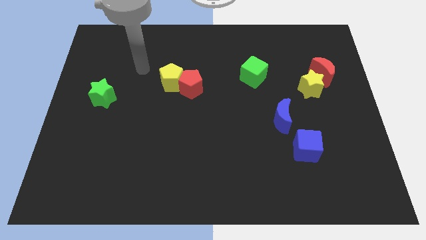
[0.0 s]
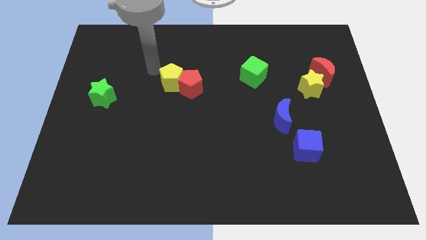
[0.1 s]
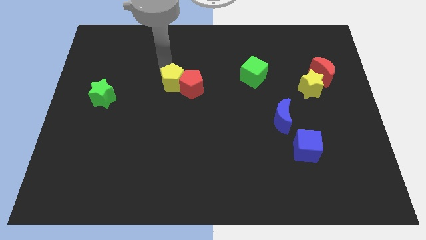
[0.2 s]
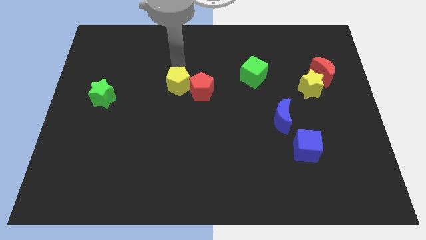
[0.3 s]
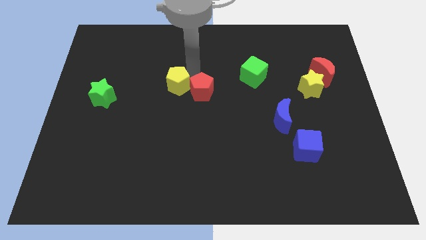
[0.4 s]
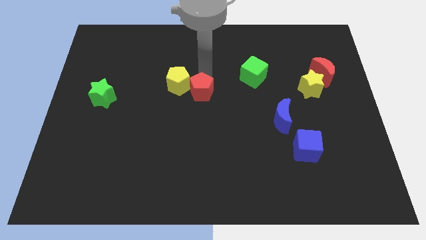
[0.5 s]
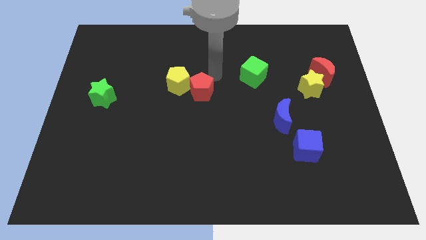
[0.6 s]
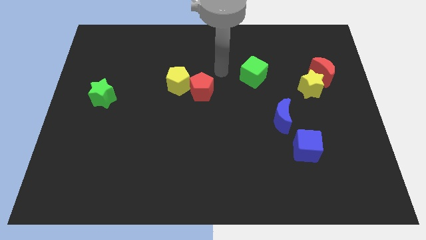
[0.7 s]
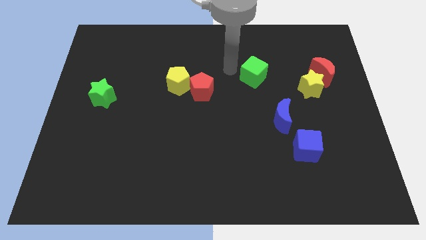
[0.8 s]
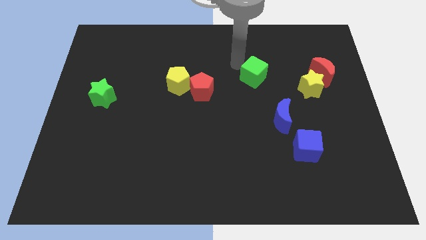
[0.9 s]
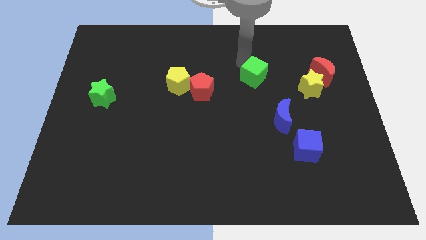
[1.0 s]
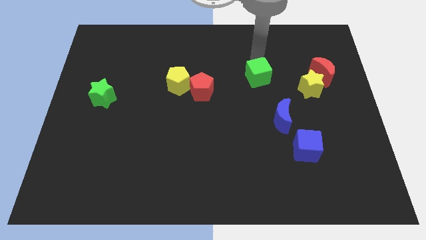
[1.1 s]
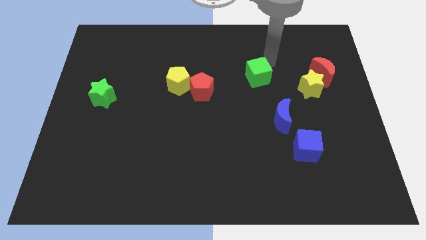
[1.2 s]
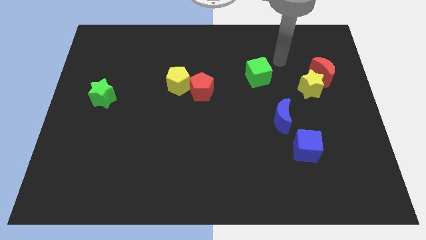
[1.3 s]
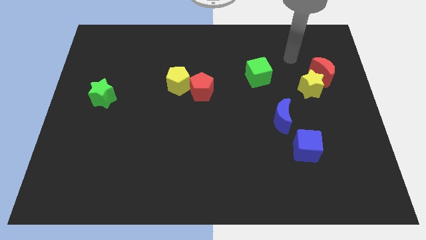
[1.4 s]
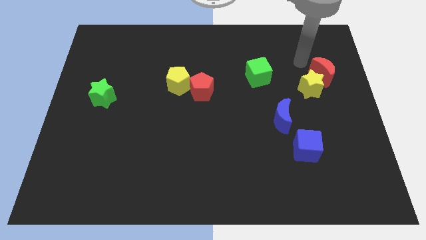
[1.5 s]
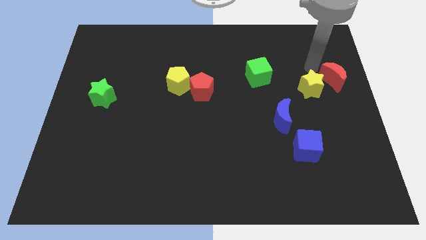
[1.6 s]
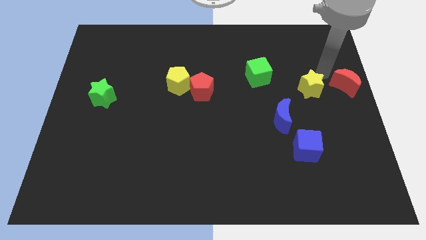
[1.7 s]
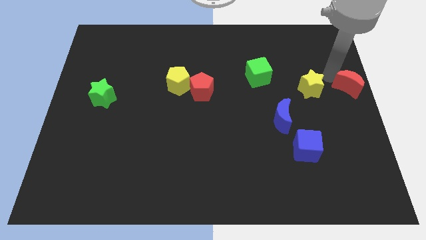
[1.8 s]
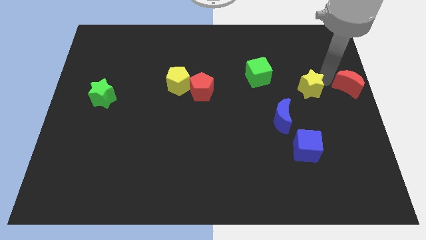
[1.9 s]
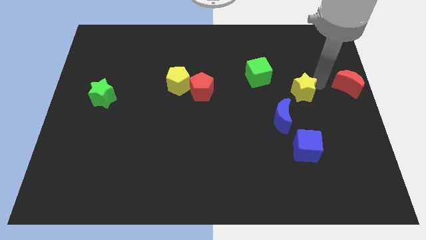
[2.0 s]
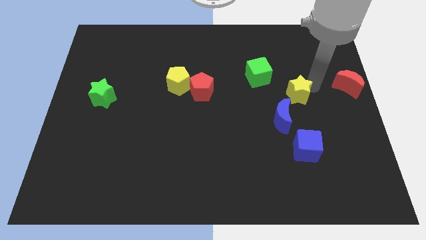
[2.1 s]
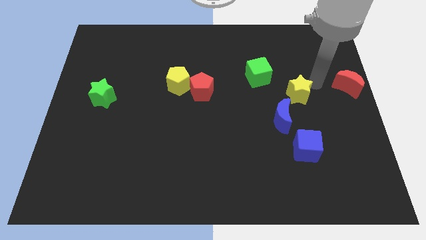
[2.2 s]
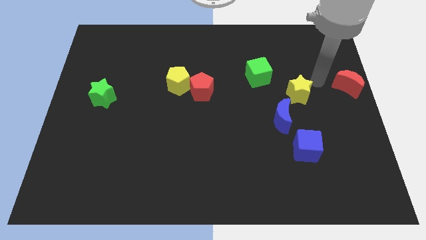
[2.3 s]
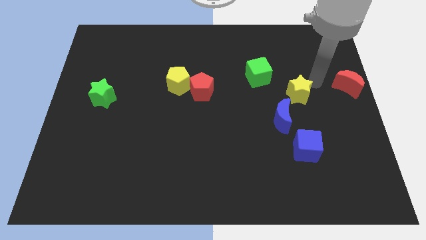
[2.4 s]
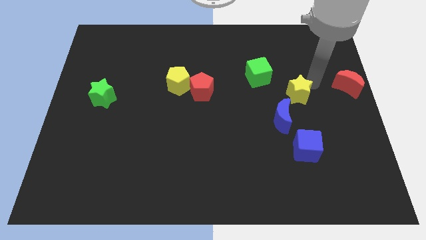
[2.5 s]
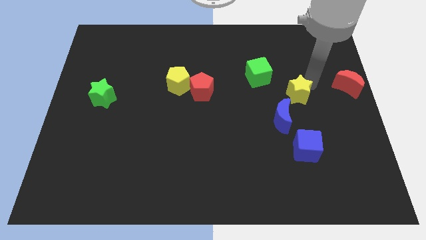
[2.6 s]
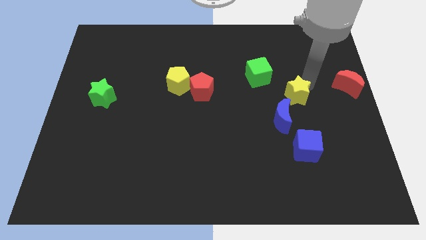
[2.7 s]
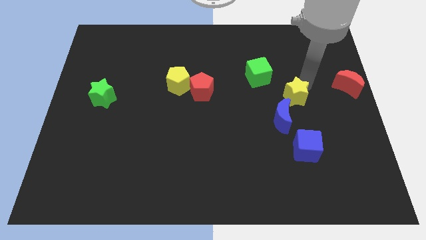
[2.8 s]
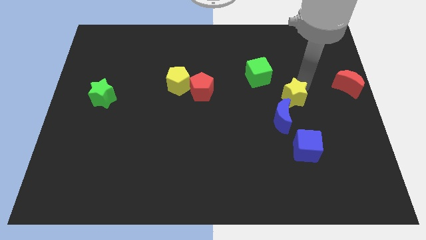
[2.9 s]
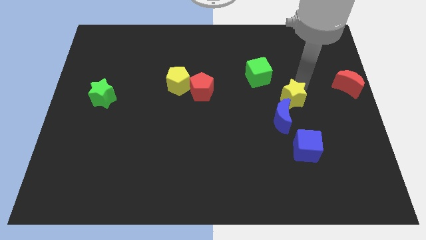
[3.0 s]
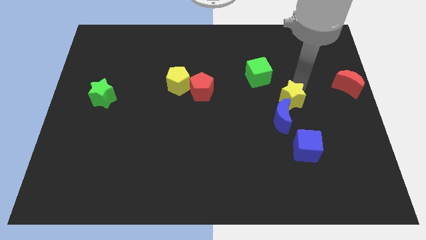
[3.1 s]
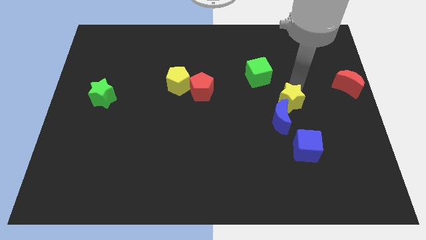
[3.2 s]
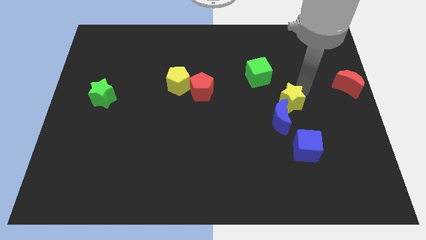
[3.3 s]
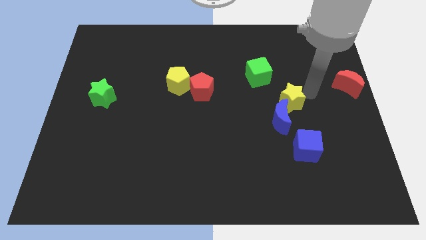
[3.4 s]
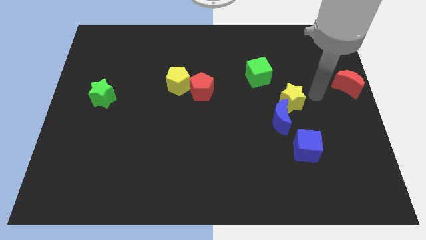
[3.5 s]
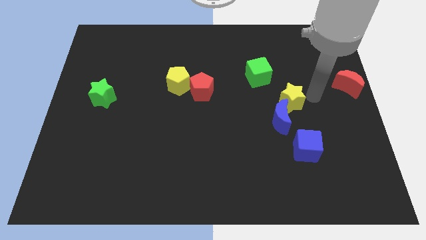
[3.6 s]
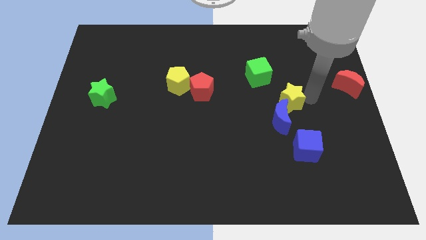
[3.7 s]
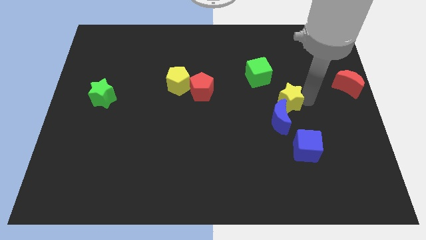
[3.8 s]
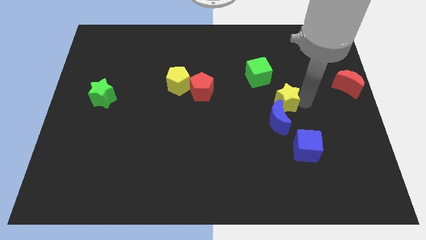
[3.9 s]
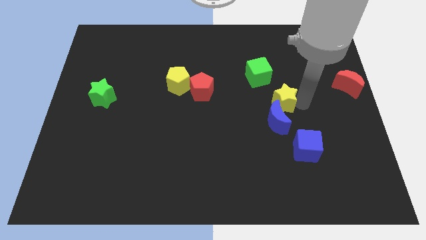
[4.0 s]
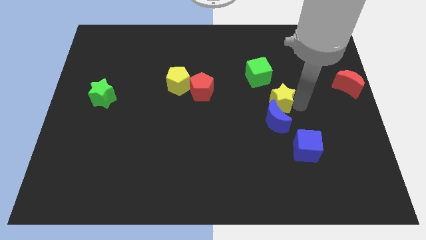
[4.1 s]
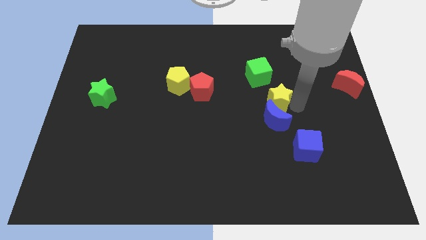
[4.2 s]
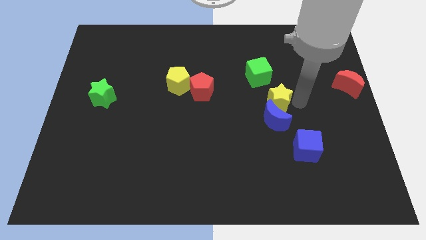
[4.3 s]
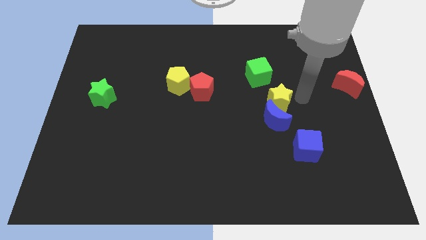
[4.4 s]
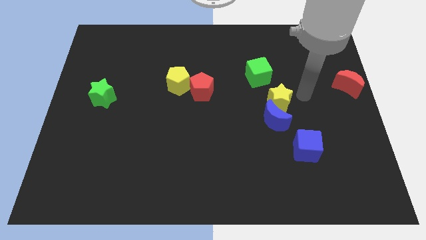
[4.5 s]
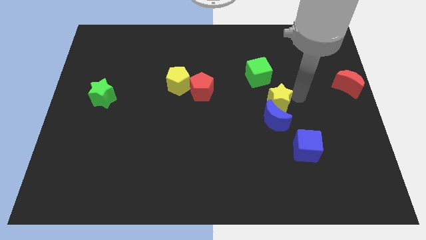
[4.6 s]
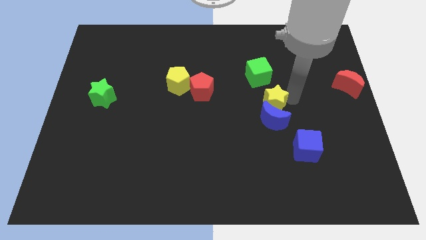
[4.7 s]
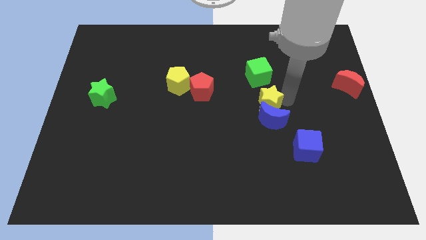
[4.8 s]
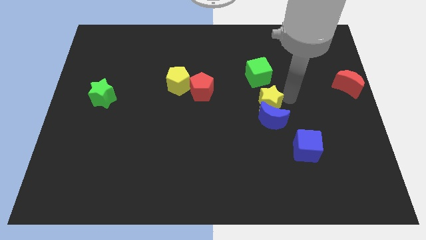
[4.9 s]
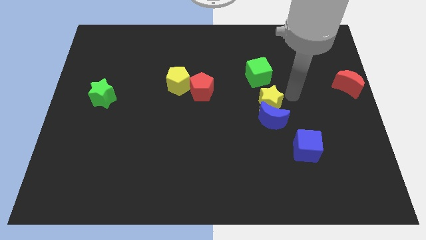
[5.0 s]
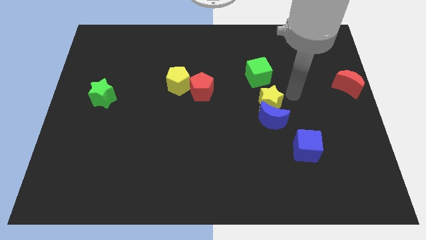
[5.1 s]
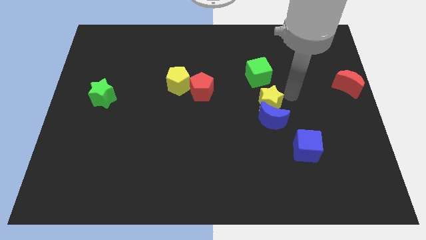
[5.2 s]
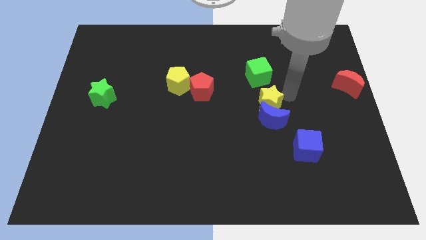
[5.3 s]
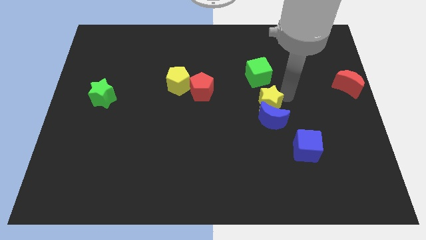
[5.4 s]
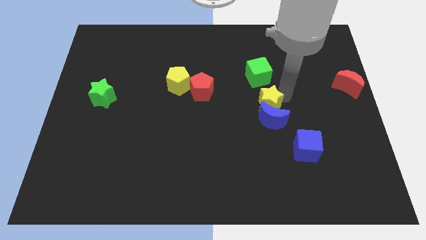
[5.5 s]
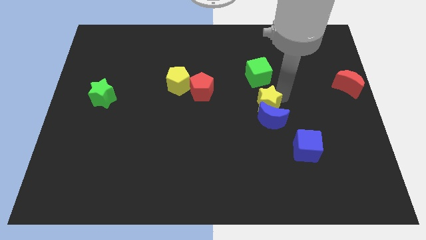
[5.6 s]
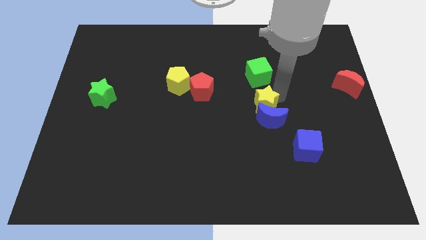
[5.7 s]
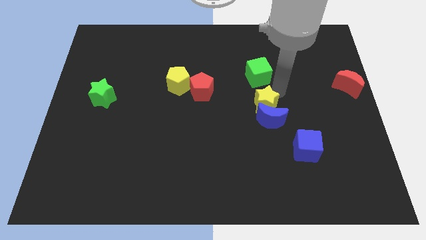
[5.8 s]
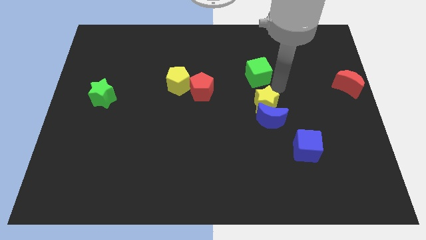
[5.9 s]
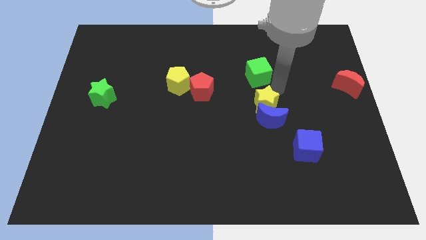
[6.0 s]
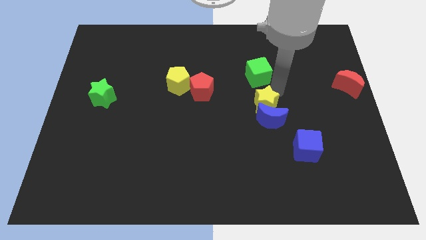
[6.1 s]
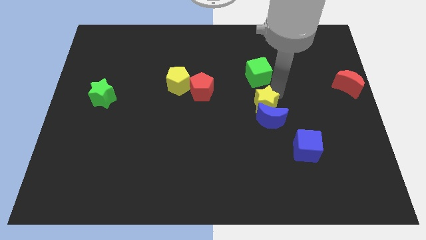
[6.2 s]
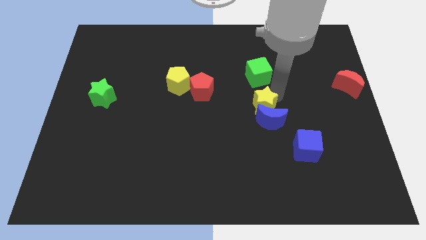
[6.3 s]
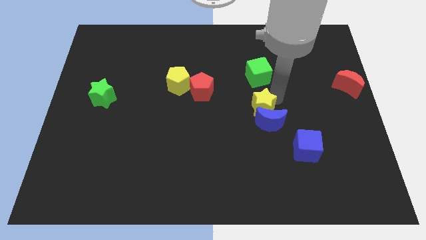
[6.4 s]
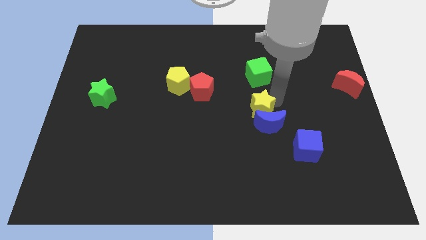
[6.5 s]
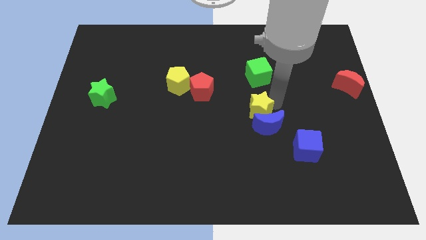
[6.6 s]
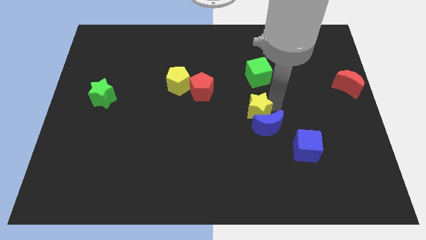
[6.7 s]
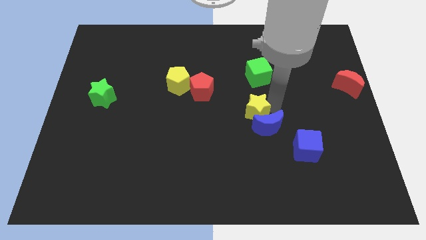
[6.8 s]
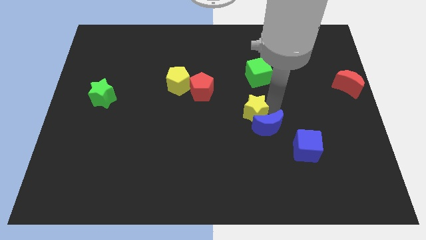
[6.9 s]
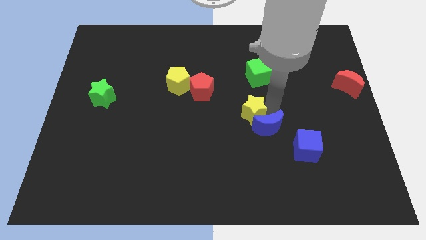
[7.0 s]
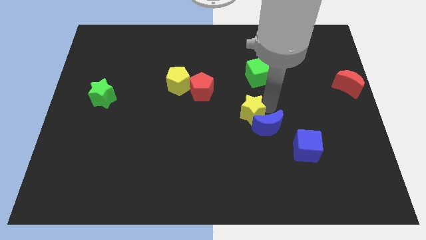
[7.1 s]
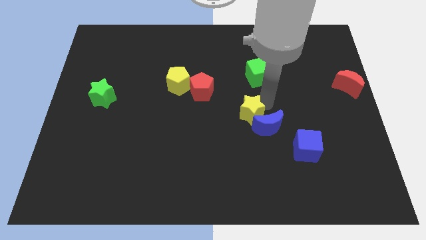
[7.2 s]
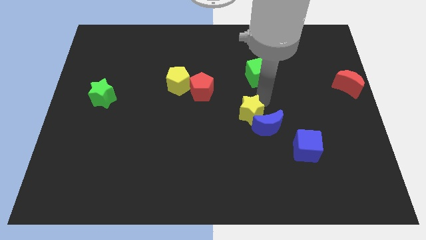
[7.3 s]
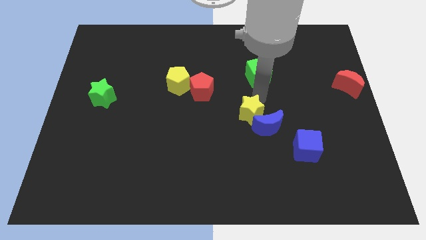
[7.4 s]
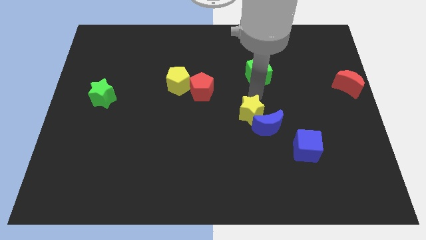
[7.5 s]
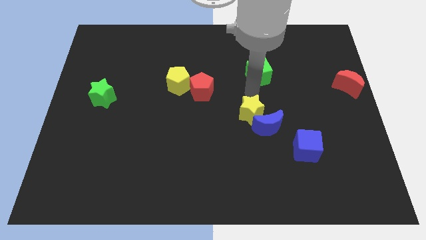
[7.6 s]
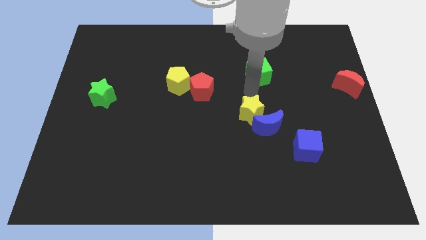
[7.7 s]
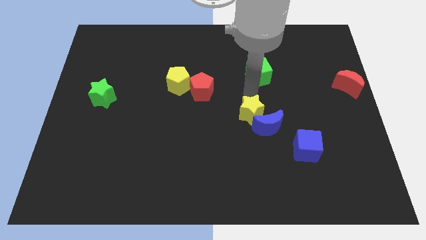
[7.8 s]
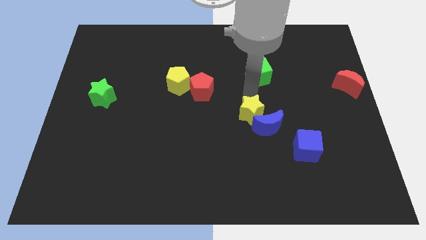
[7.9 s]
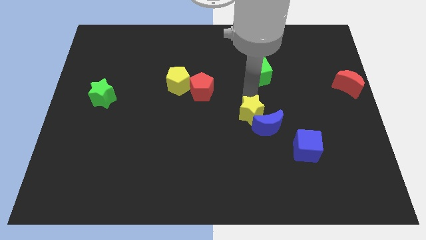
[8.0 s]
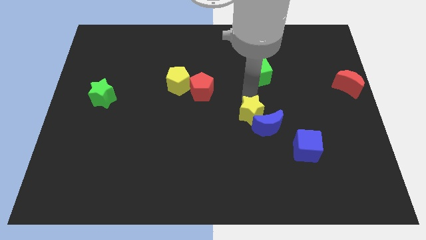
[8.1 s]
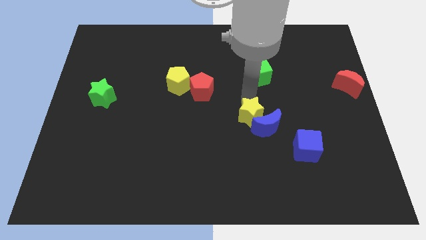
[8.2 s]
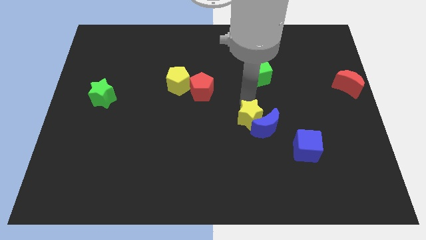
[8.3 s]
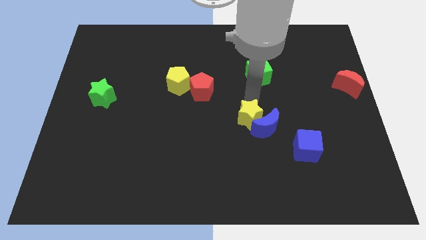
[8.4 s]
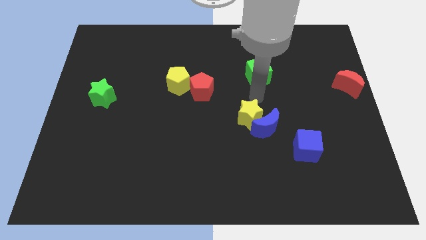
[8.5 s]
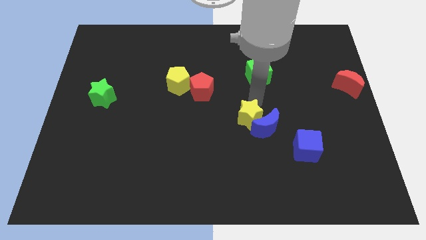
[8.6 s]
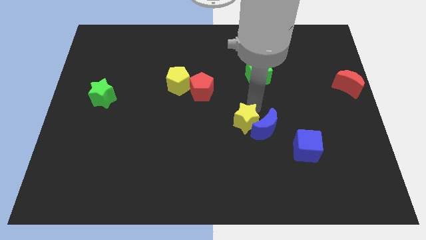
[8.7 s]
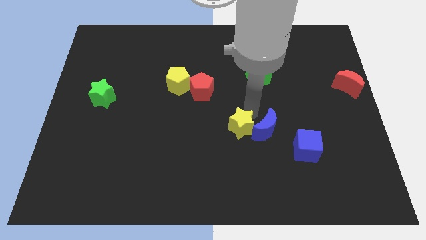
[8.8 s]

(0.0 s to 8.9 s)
move the yellow star down and then left
